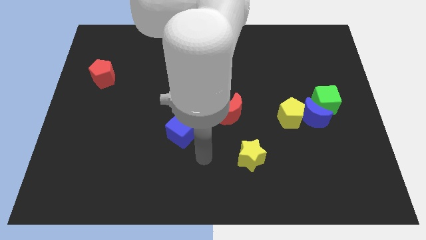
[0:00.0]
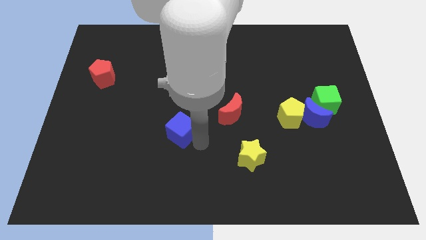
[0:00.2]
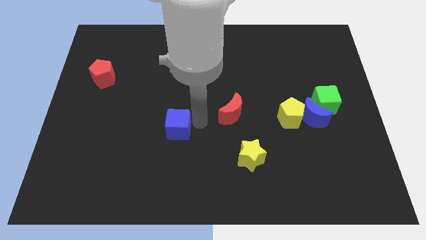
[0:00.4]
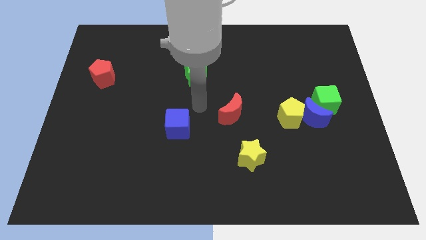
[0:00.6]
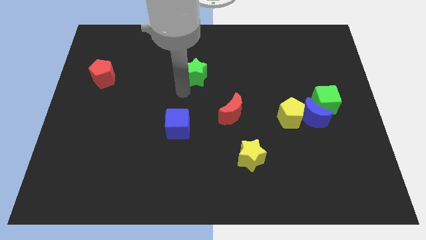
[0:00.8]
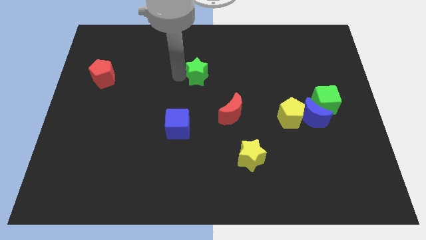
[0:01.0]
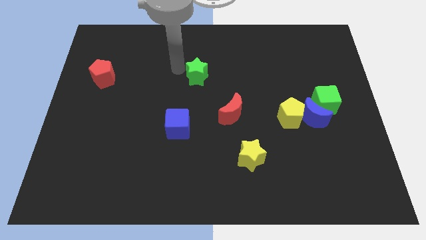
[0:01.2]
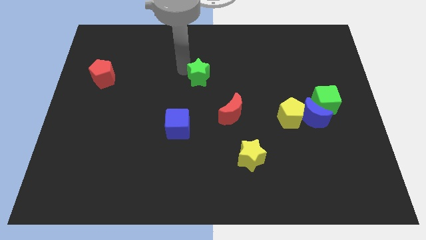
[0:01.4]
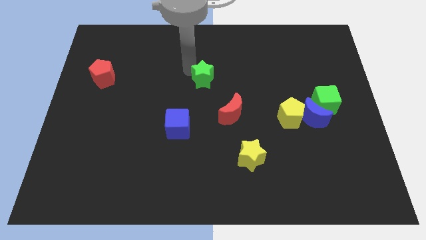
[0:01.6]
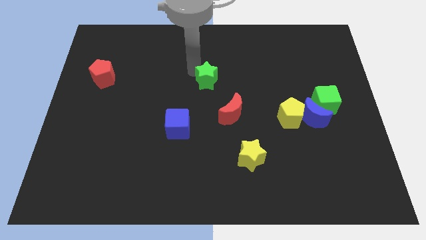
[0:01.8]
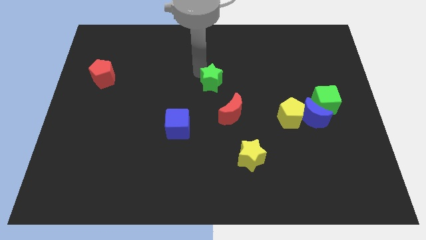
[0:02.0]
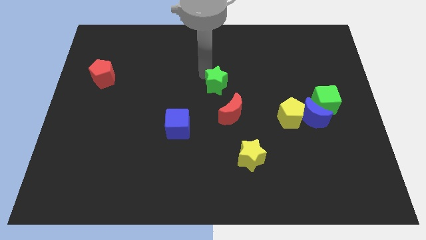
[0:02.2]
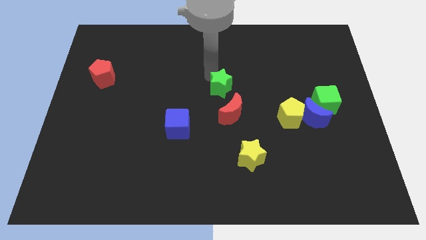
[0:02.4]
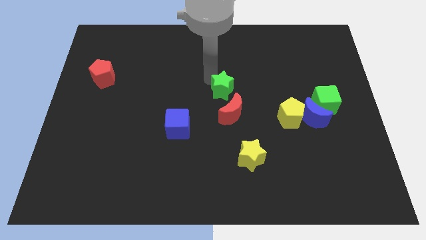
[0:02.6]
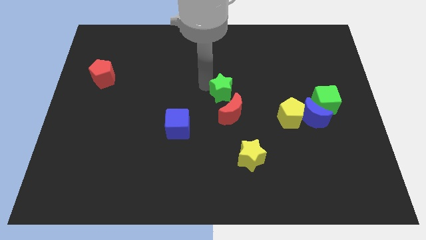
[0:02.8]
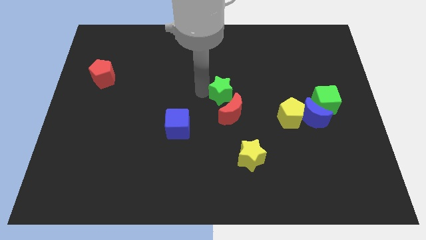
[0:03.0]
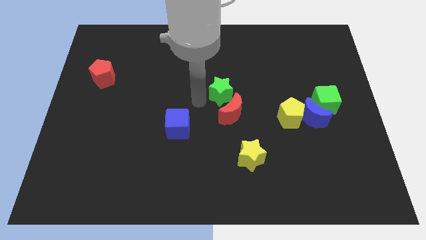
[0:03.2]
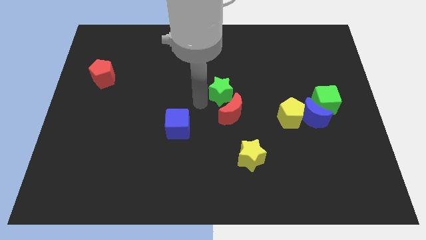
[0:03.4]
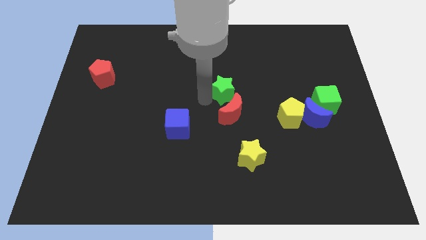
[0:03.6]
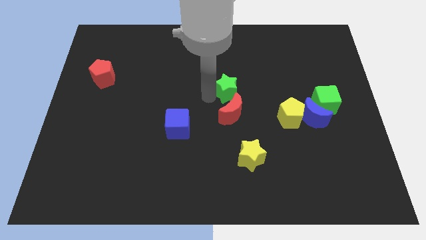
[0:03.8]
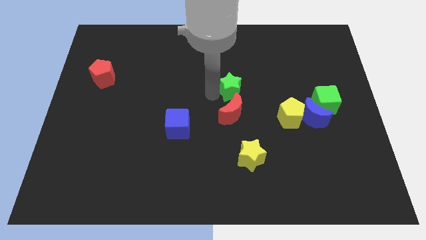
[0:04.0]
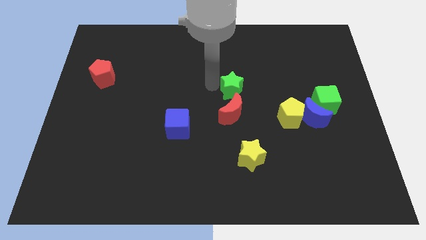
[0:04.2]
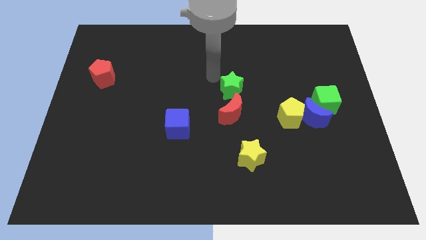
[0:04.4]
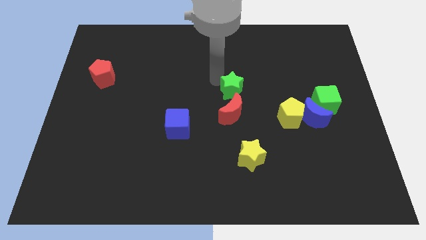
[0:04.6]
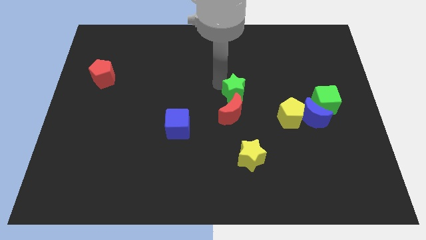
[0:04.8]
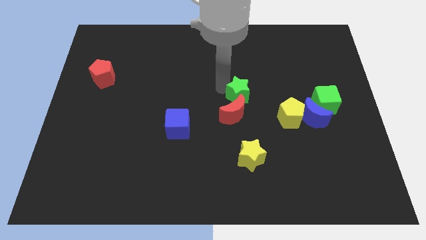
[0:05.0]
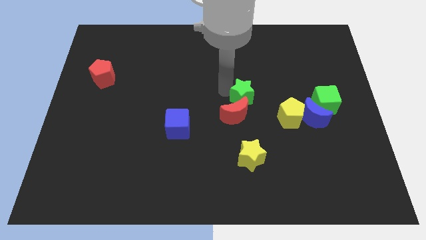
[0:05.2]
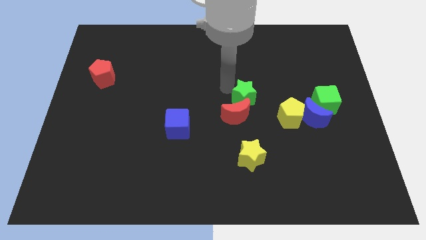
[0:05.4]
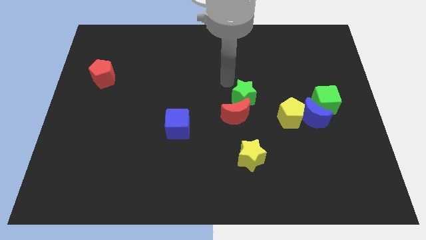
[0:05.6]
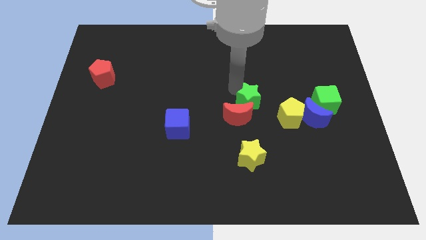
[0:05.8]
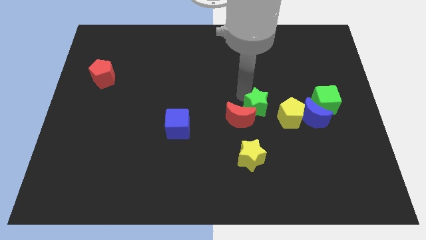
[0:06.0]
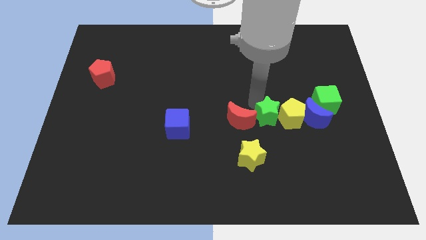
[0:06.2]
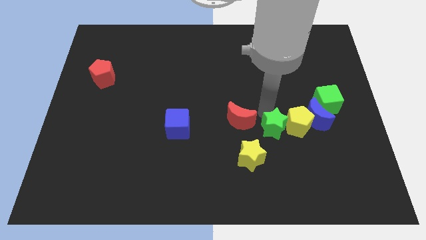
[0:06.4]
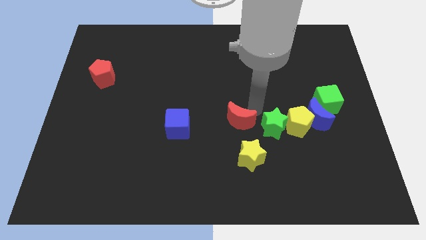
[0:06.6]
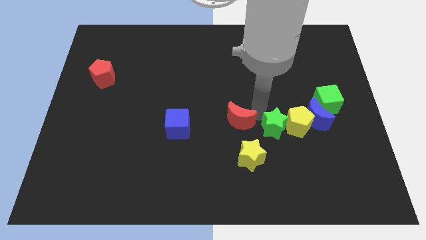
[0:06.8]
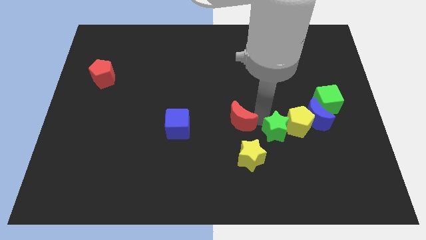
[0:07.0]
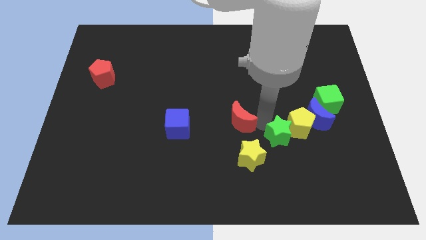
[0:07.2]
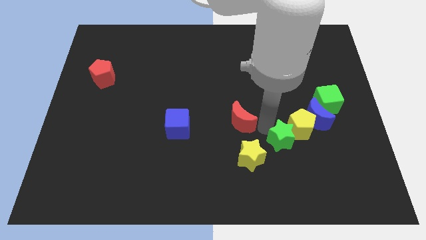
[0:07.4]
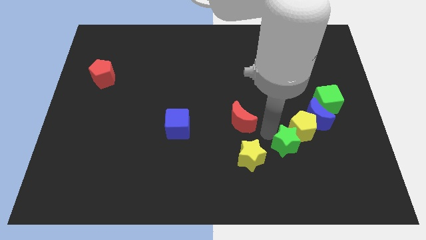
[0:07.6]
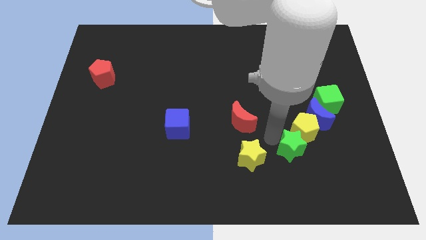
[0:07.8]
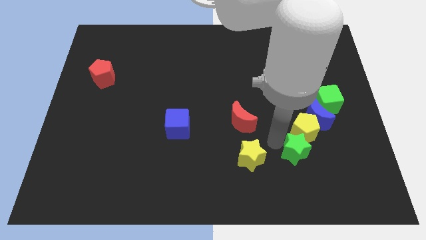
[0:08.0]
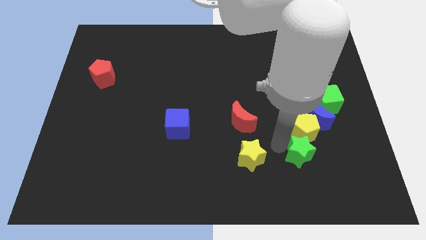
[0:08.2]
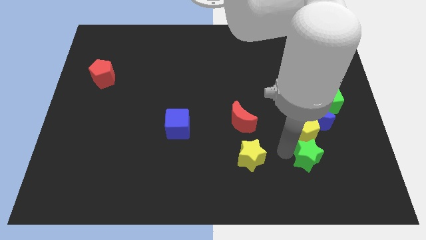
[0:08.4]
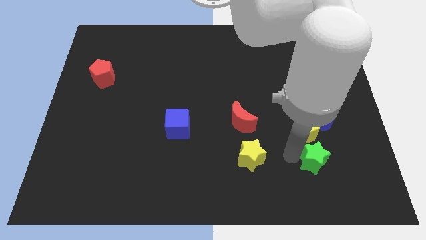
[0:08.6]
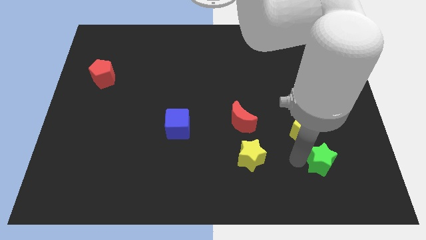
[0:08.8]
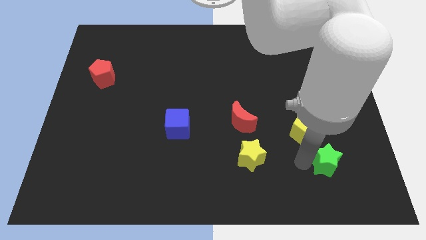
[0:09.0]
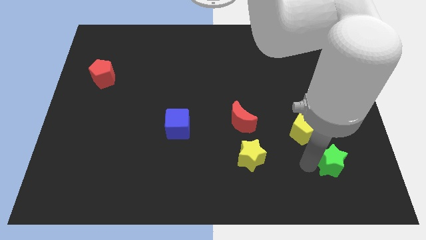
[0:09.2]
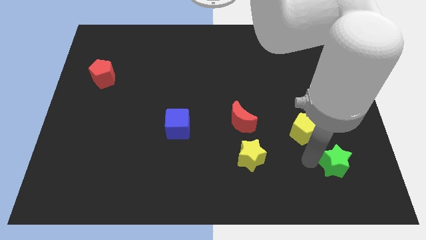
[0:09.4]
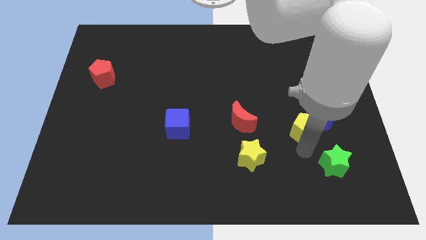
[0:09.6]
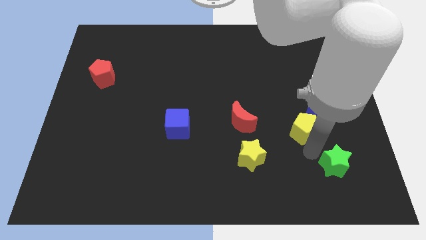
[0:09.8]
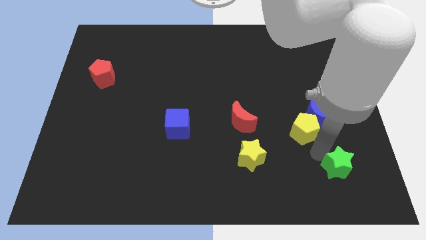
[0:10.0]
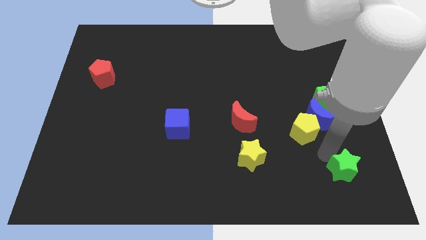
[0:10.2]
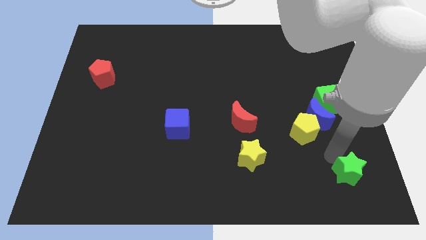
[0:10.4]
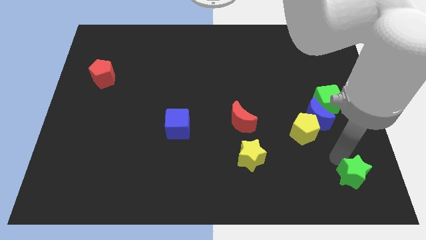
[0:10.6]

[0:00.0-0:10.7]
put the green star to the lower right corner
